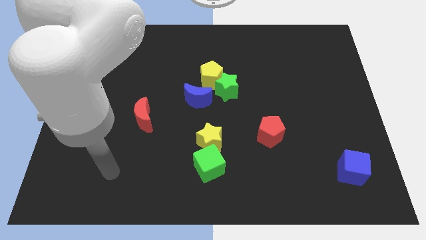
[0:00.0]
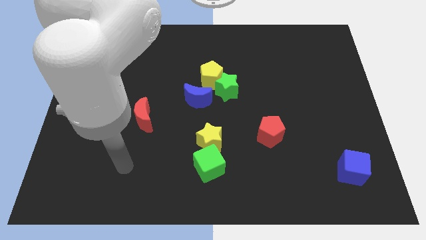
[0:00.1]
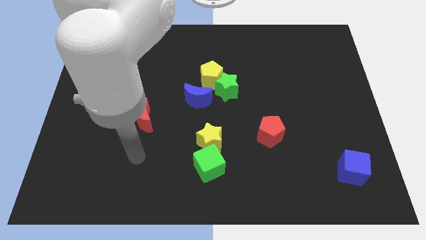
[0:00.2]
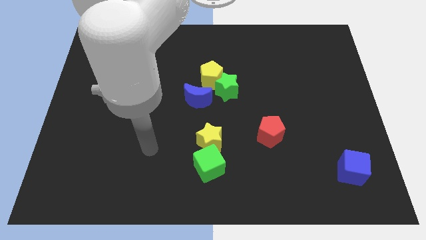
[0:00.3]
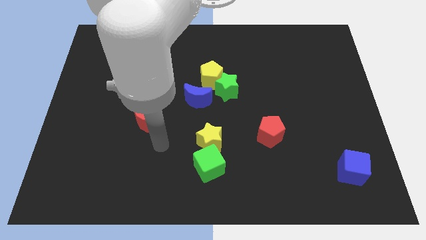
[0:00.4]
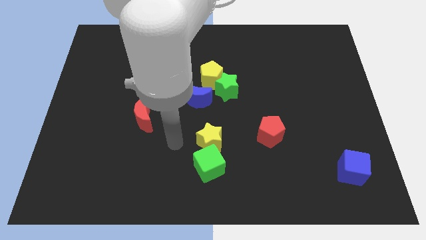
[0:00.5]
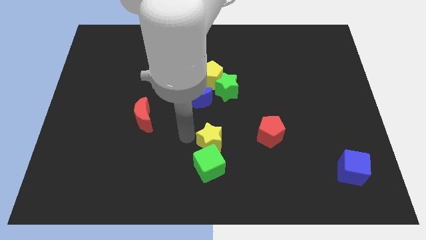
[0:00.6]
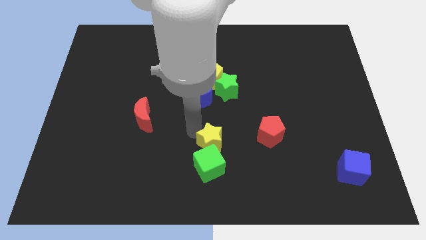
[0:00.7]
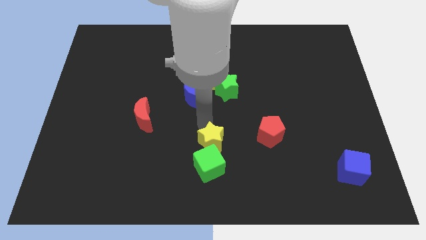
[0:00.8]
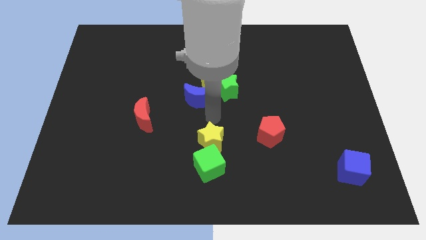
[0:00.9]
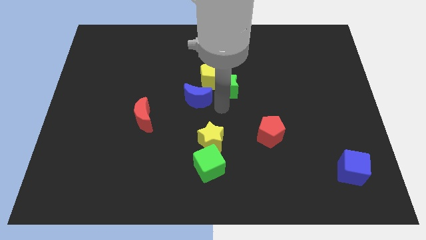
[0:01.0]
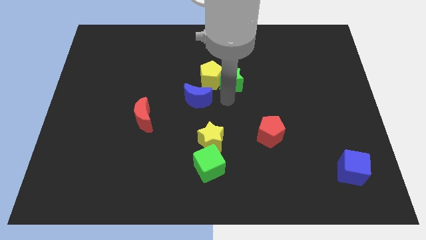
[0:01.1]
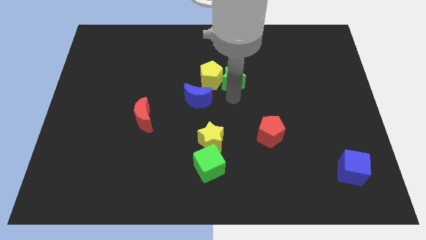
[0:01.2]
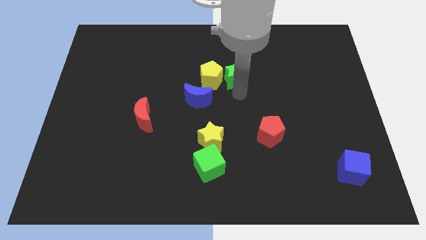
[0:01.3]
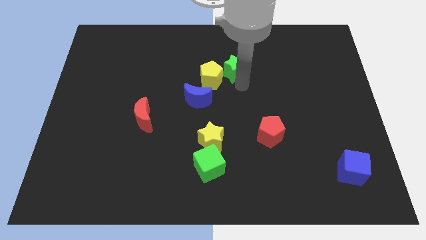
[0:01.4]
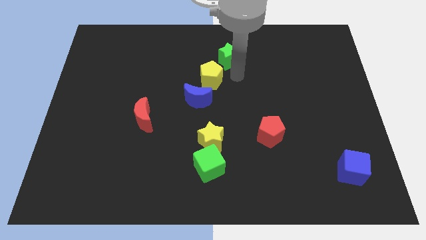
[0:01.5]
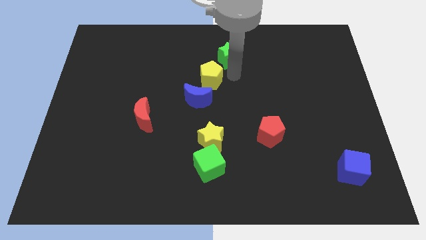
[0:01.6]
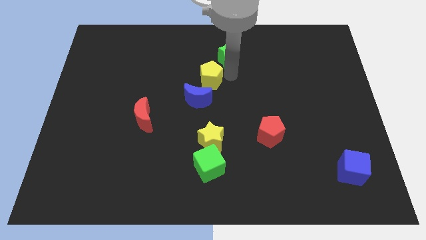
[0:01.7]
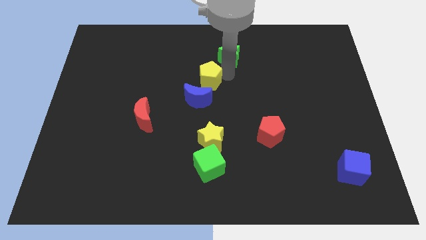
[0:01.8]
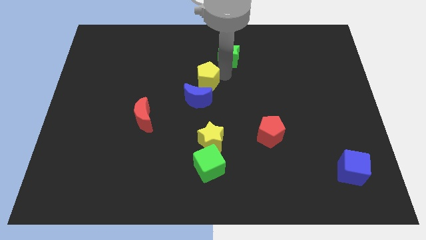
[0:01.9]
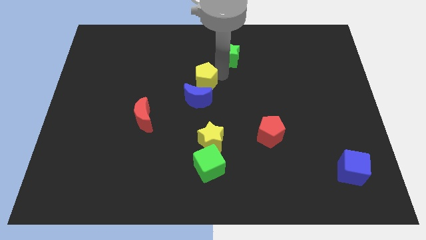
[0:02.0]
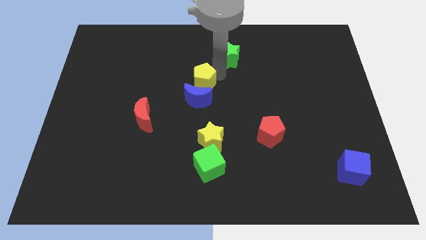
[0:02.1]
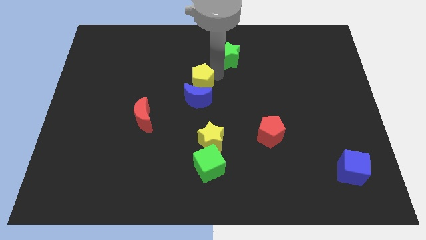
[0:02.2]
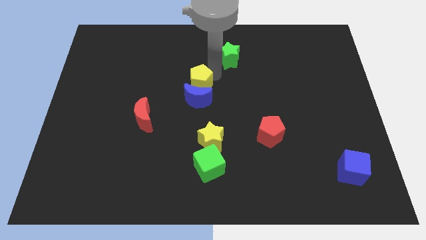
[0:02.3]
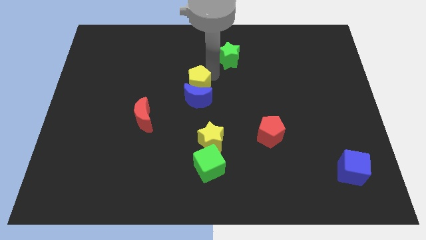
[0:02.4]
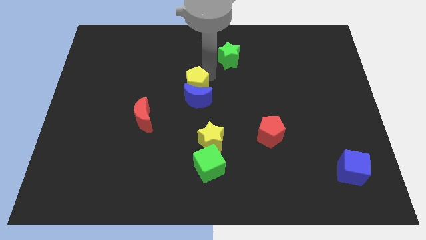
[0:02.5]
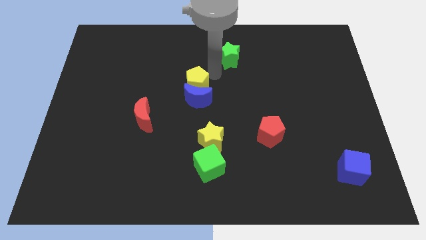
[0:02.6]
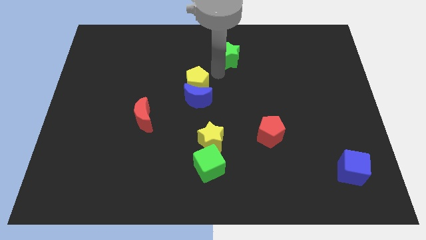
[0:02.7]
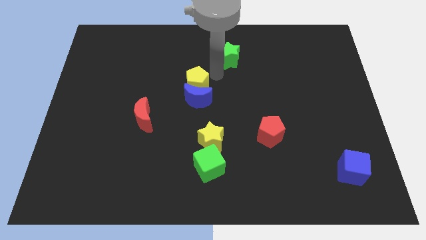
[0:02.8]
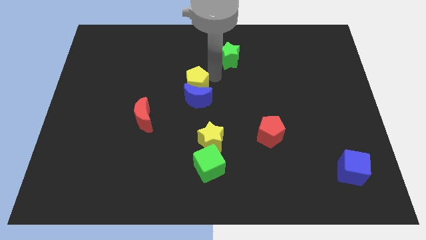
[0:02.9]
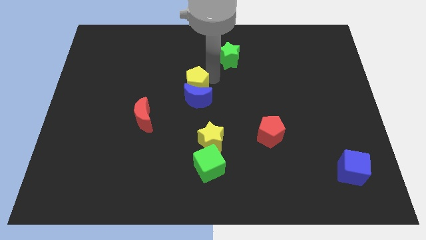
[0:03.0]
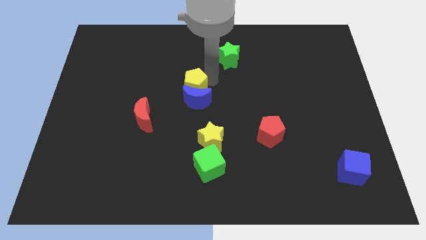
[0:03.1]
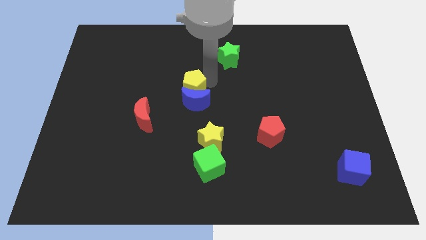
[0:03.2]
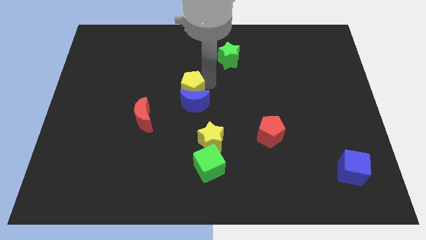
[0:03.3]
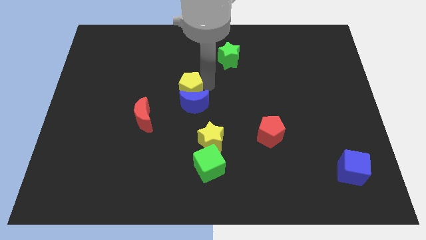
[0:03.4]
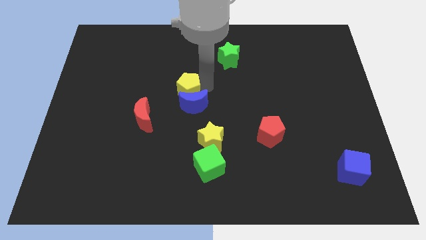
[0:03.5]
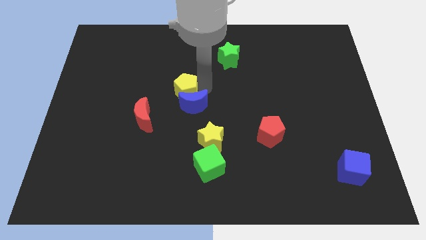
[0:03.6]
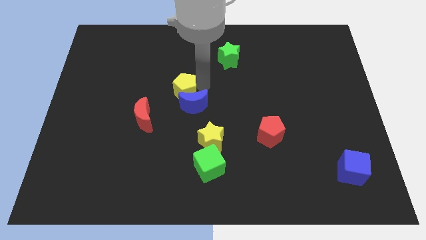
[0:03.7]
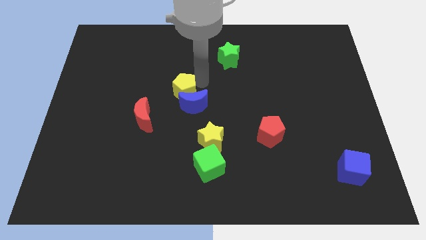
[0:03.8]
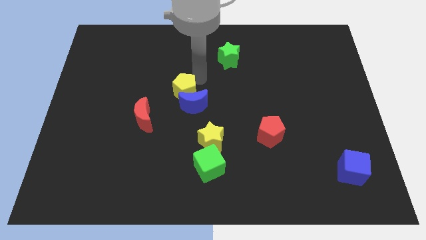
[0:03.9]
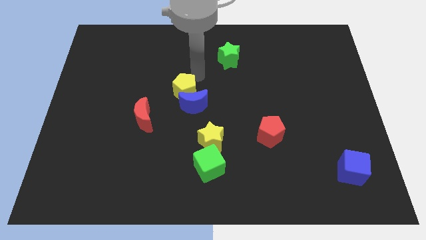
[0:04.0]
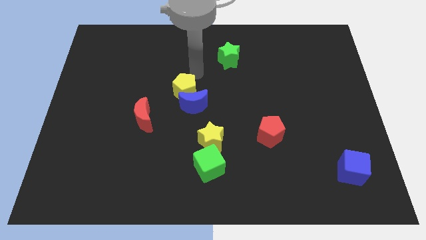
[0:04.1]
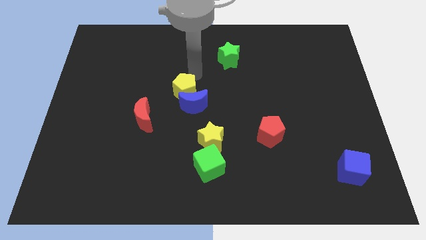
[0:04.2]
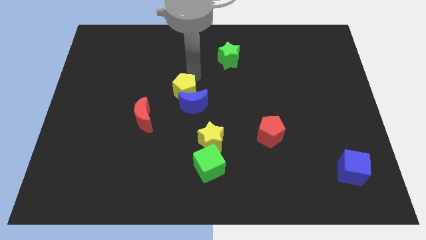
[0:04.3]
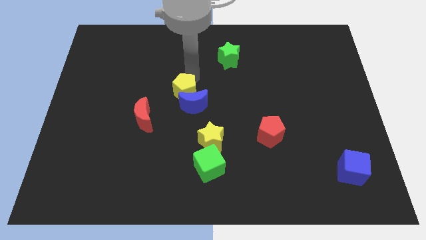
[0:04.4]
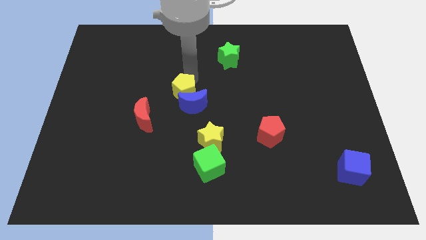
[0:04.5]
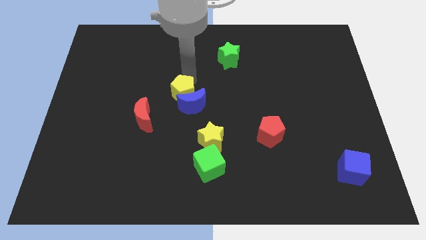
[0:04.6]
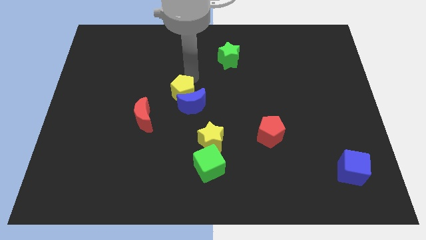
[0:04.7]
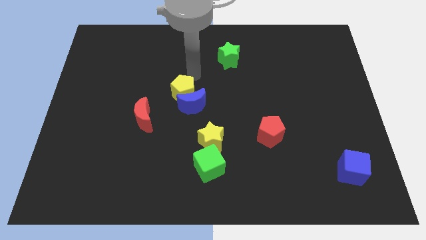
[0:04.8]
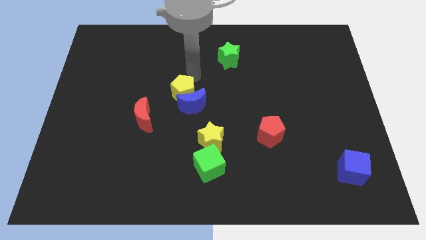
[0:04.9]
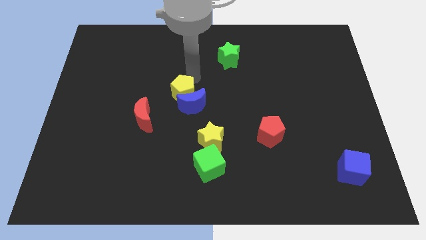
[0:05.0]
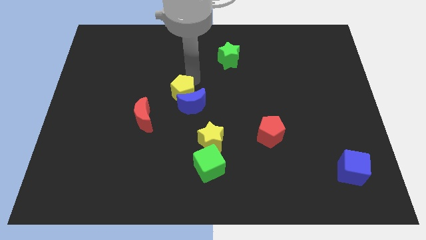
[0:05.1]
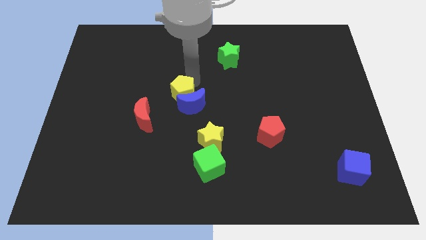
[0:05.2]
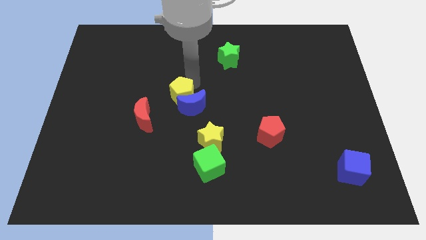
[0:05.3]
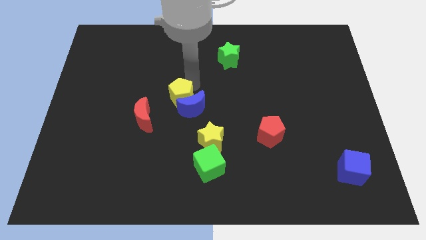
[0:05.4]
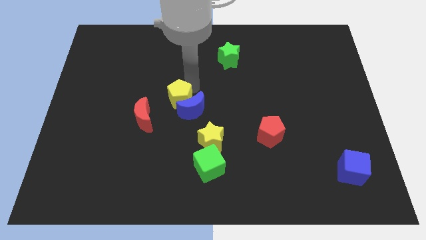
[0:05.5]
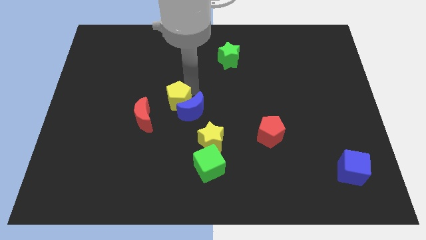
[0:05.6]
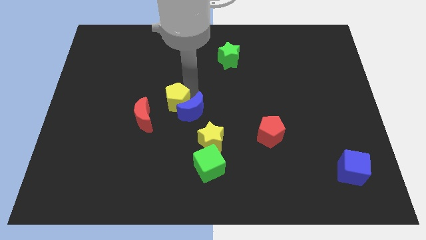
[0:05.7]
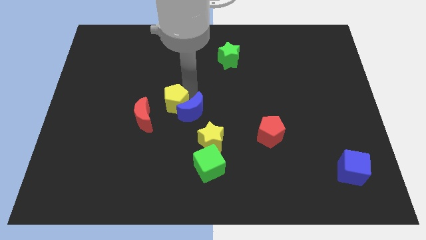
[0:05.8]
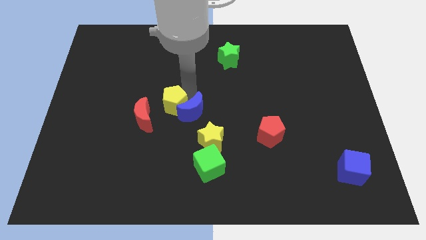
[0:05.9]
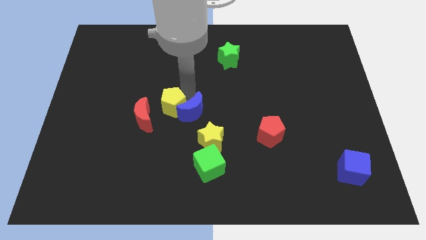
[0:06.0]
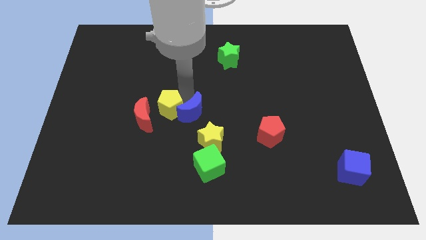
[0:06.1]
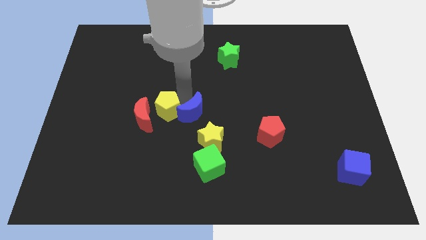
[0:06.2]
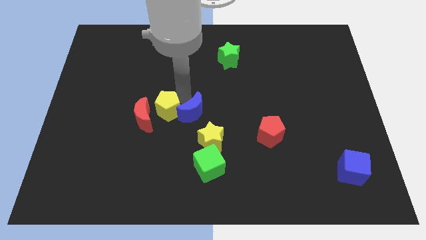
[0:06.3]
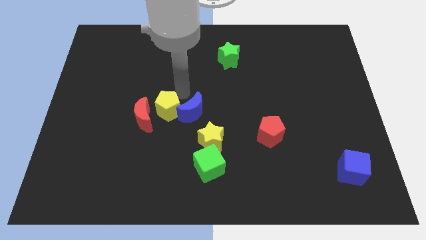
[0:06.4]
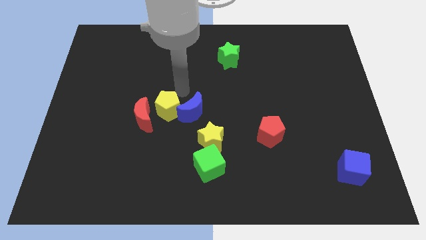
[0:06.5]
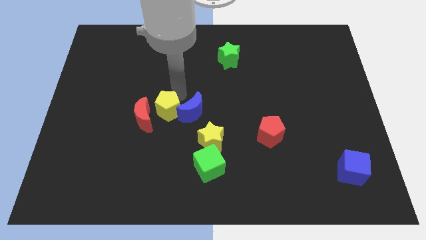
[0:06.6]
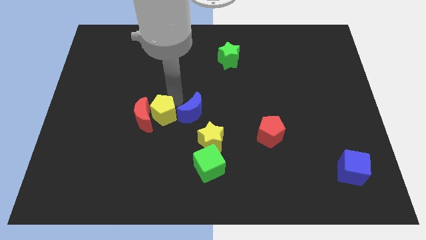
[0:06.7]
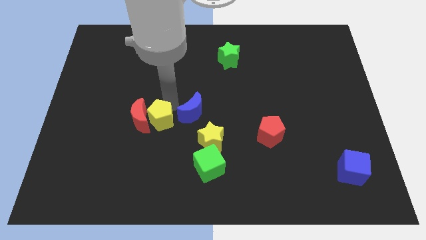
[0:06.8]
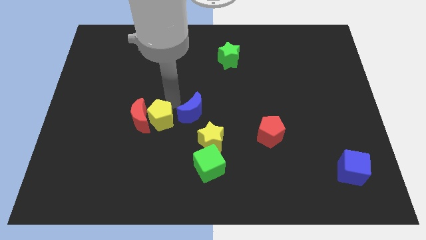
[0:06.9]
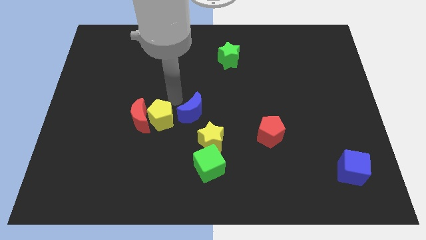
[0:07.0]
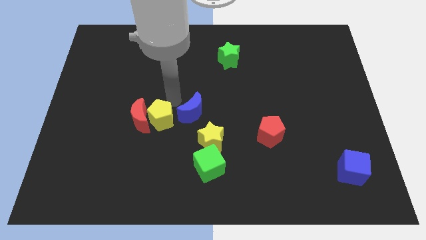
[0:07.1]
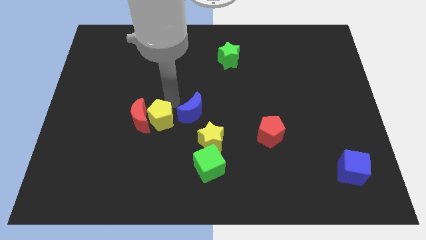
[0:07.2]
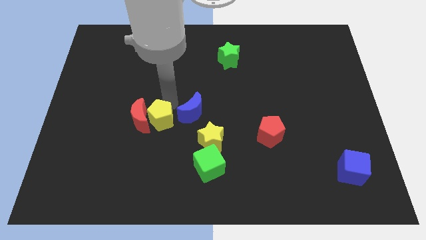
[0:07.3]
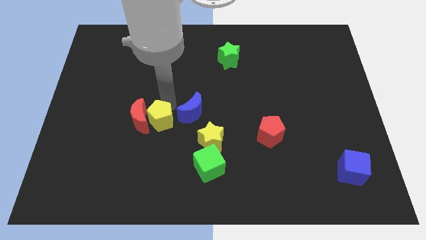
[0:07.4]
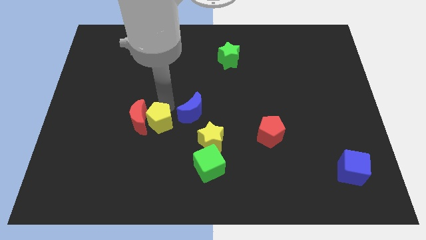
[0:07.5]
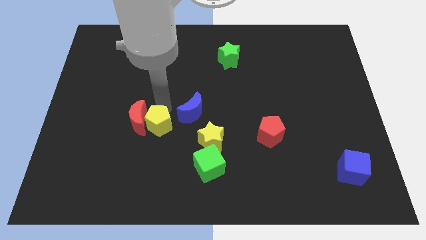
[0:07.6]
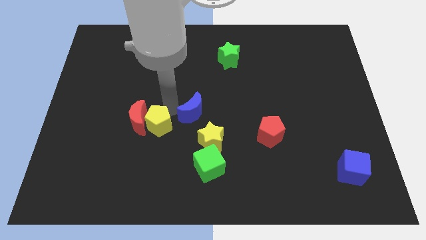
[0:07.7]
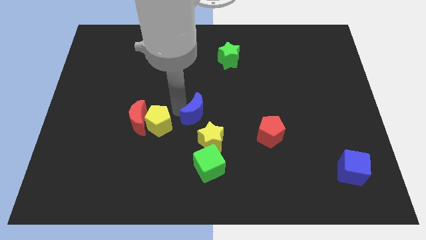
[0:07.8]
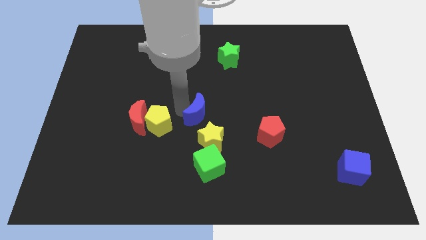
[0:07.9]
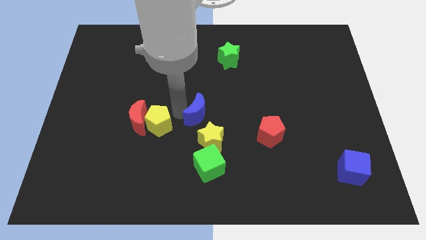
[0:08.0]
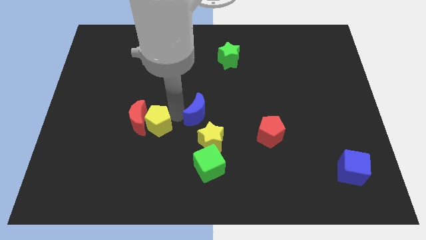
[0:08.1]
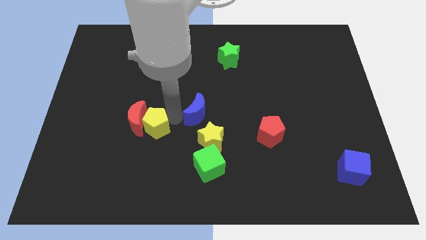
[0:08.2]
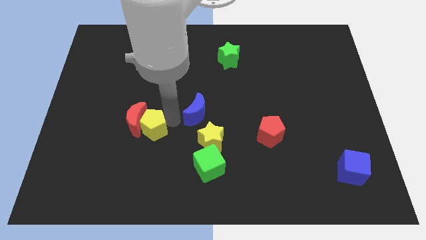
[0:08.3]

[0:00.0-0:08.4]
slide the yellow pentagon diagonally down and to the left
